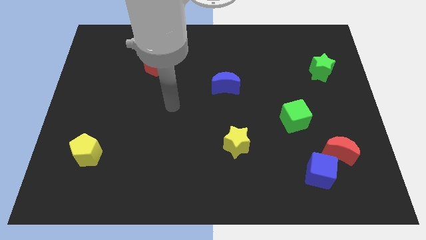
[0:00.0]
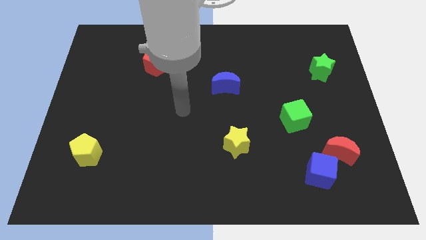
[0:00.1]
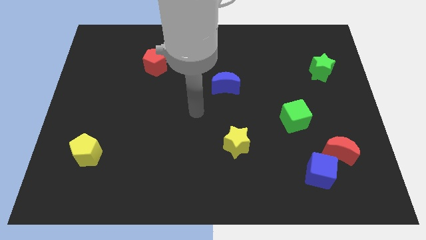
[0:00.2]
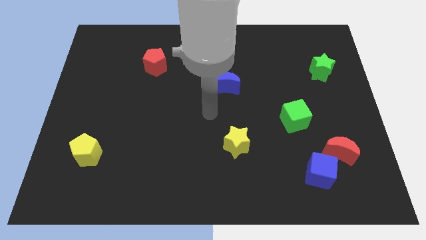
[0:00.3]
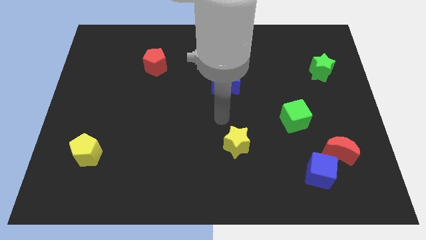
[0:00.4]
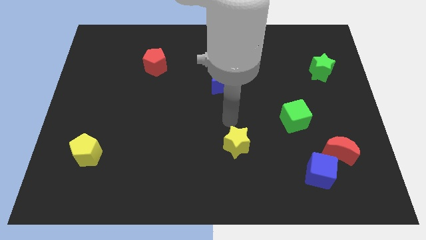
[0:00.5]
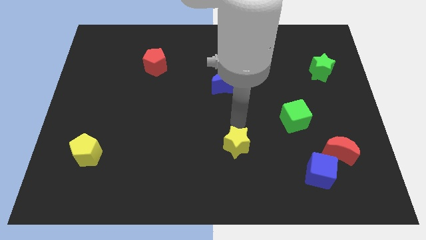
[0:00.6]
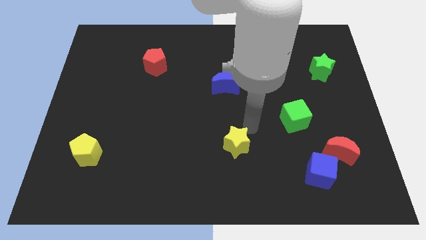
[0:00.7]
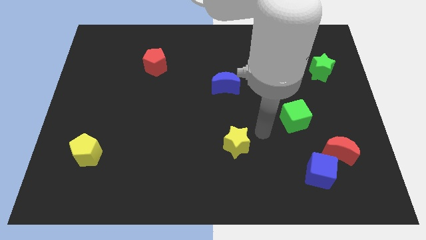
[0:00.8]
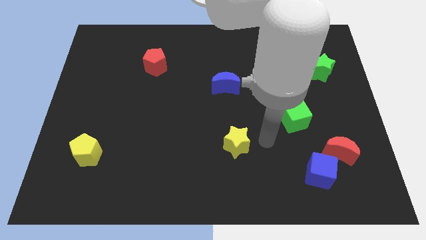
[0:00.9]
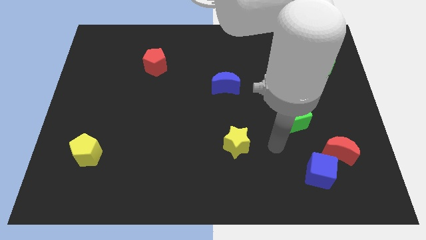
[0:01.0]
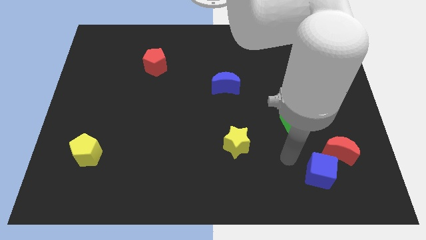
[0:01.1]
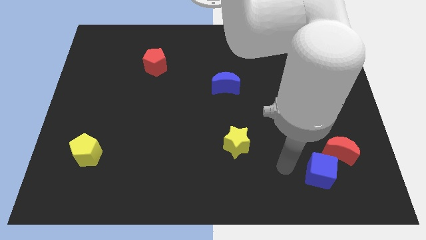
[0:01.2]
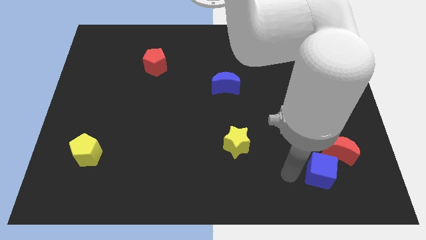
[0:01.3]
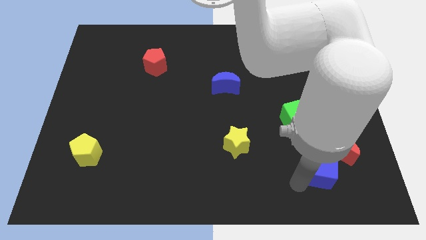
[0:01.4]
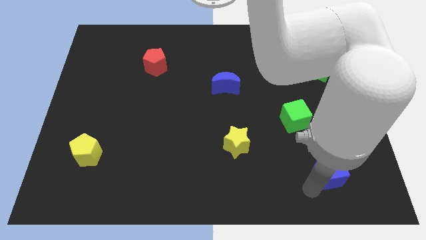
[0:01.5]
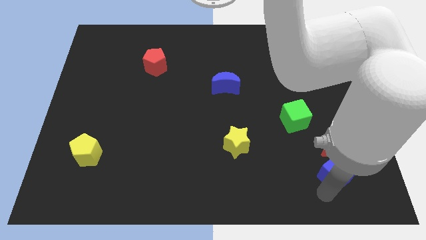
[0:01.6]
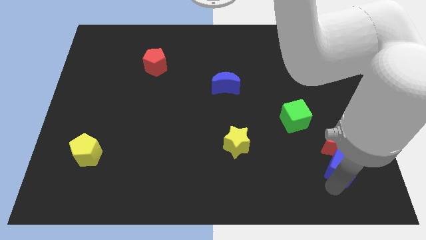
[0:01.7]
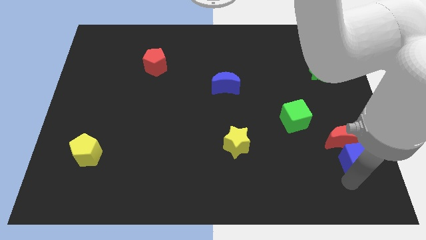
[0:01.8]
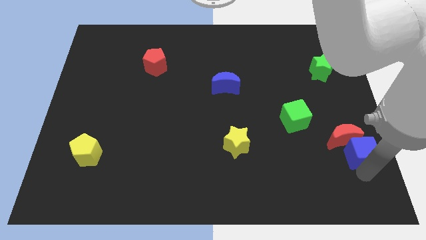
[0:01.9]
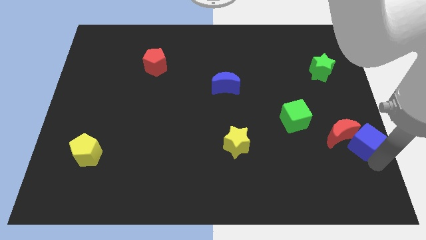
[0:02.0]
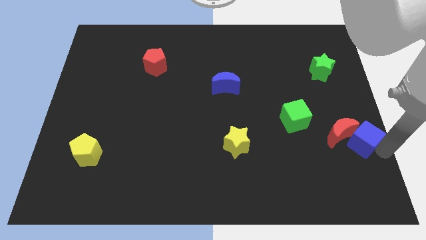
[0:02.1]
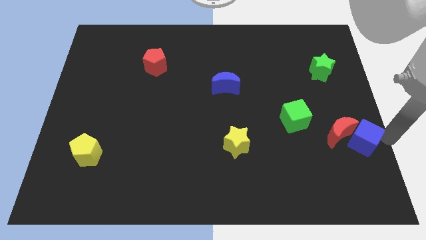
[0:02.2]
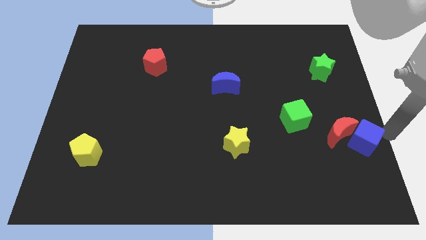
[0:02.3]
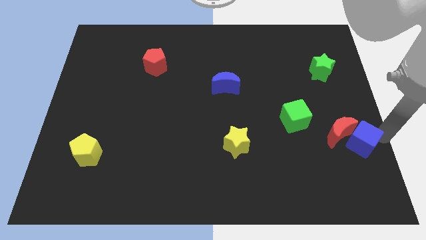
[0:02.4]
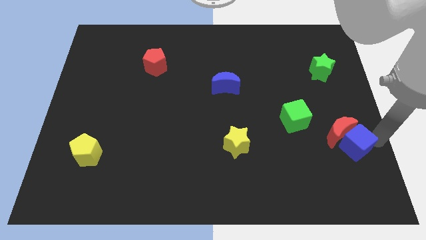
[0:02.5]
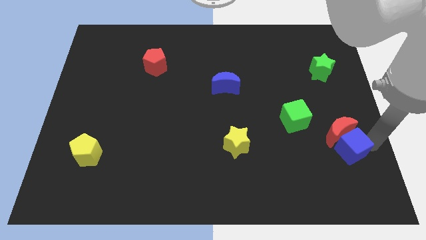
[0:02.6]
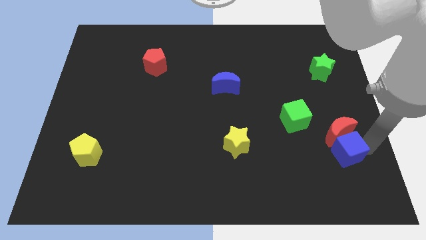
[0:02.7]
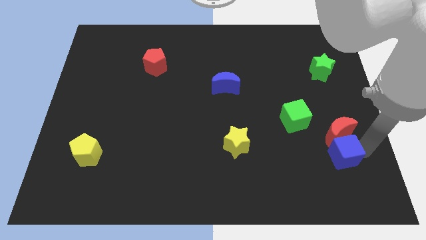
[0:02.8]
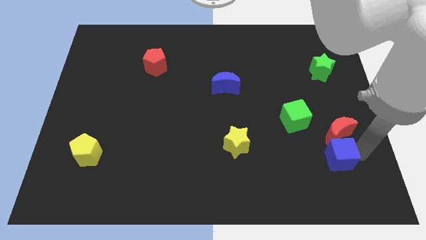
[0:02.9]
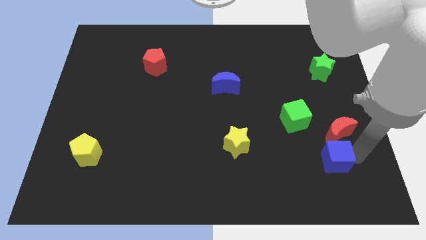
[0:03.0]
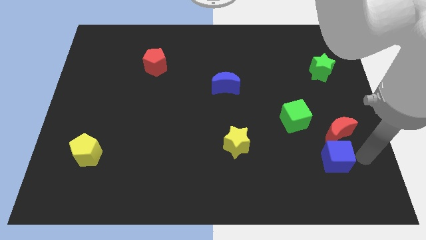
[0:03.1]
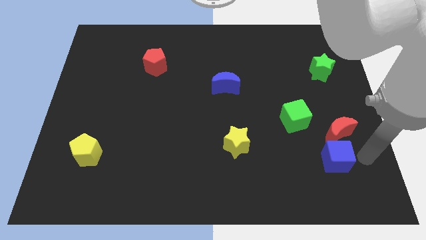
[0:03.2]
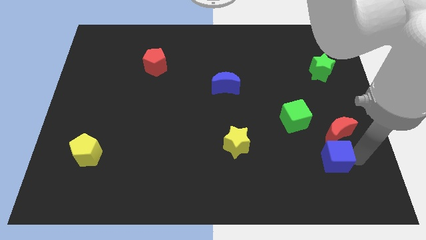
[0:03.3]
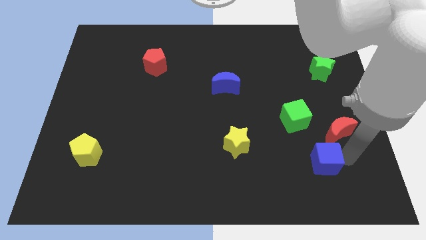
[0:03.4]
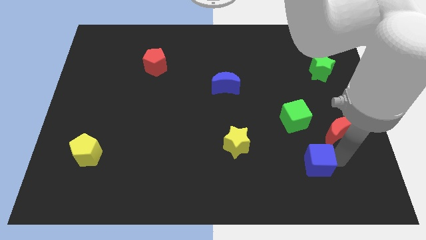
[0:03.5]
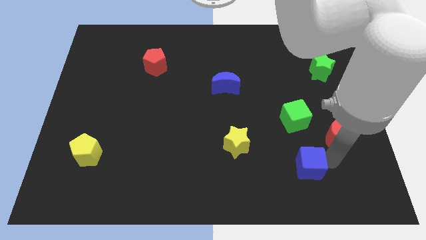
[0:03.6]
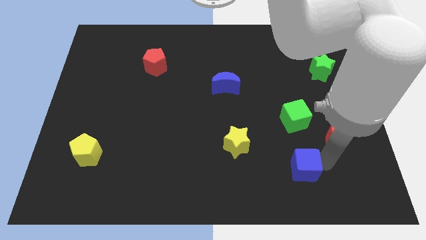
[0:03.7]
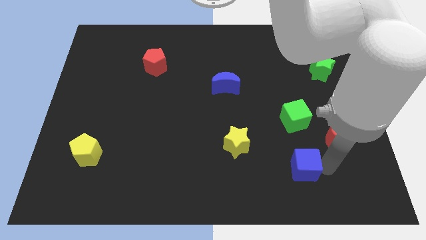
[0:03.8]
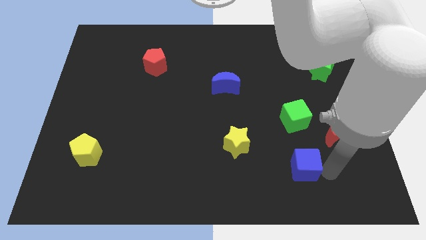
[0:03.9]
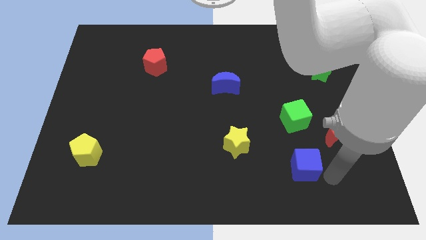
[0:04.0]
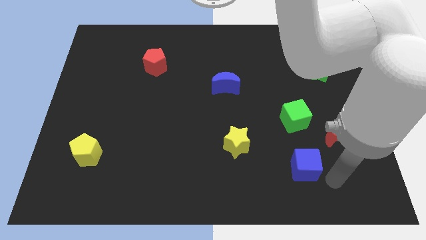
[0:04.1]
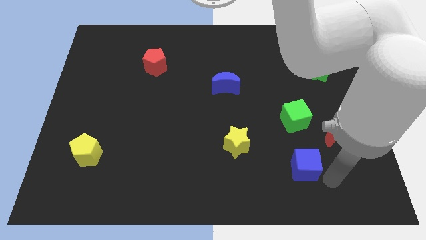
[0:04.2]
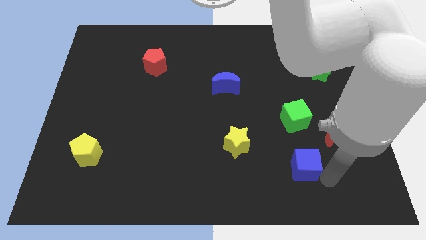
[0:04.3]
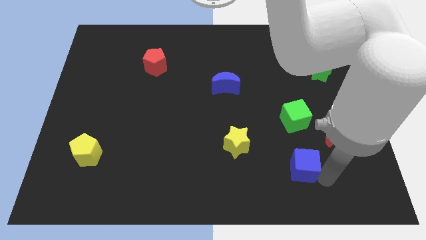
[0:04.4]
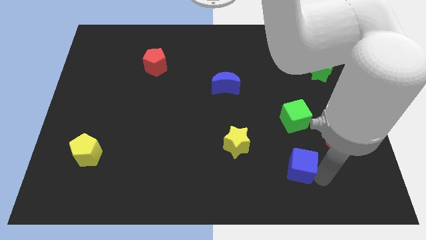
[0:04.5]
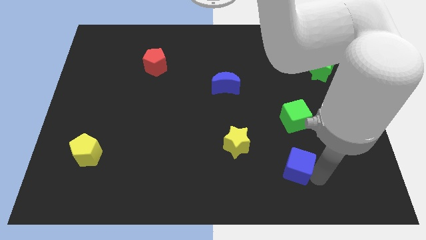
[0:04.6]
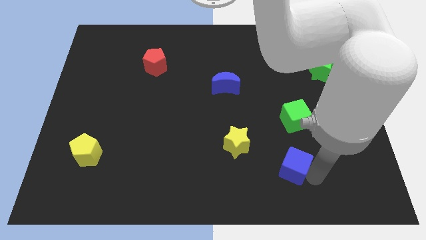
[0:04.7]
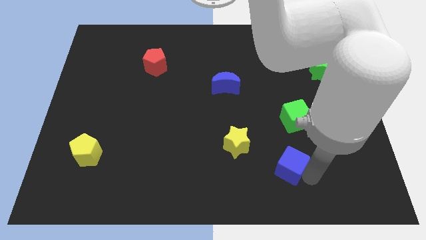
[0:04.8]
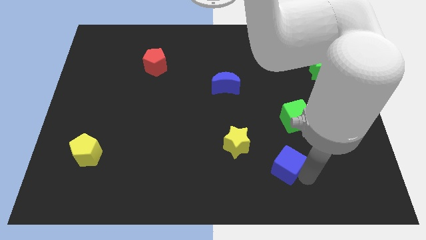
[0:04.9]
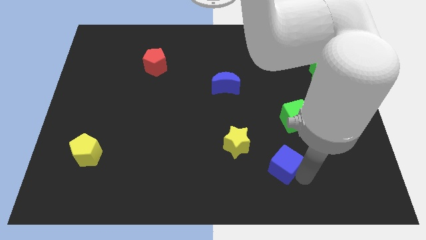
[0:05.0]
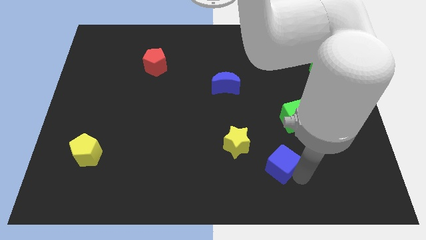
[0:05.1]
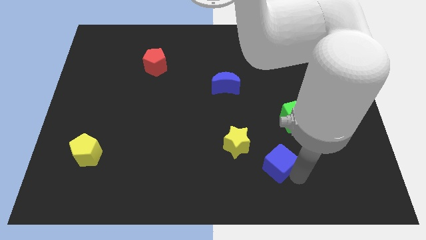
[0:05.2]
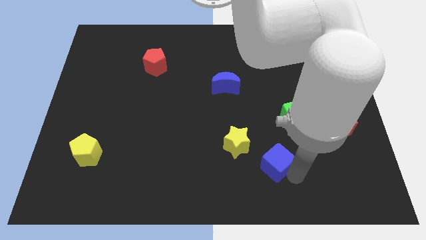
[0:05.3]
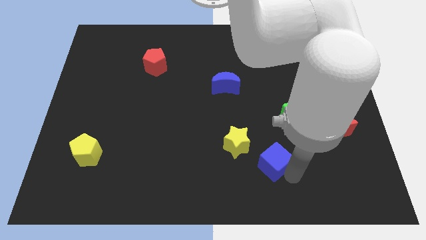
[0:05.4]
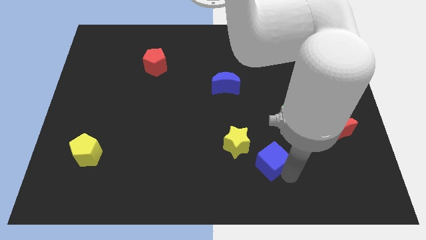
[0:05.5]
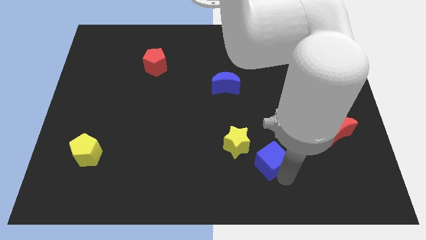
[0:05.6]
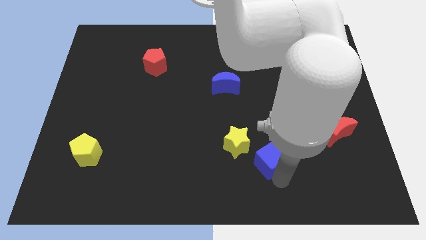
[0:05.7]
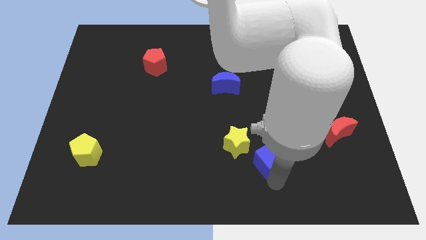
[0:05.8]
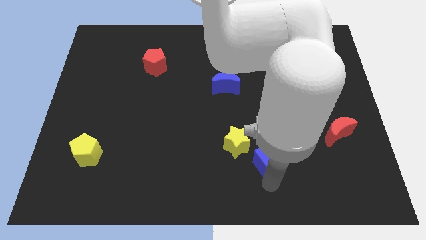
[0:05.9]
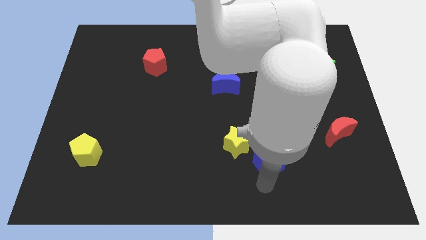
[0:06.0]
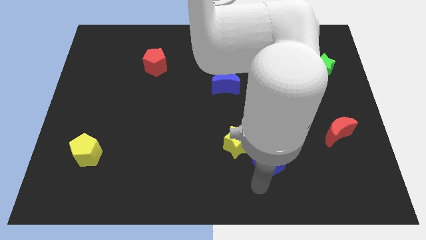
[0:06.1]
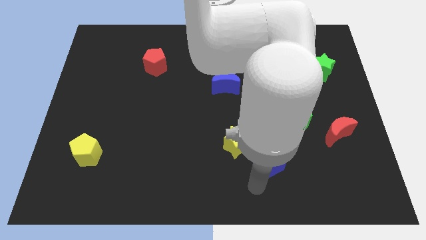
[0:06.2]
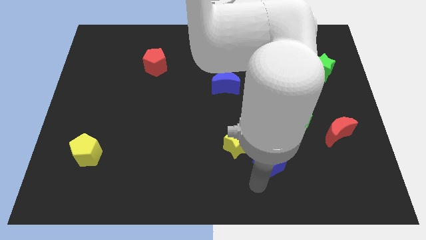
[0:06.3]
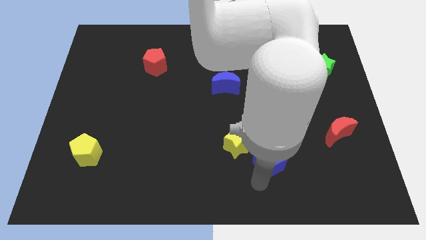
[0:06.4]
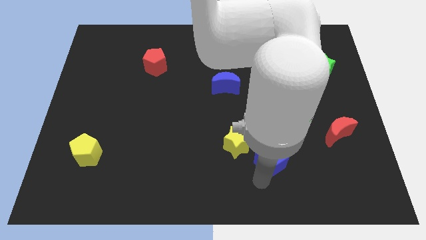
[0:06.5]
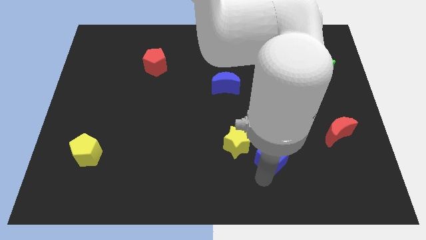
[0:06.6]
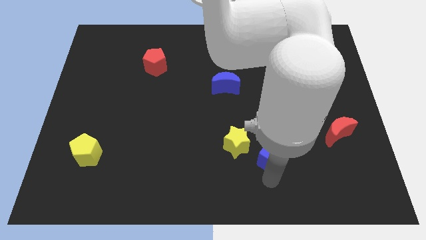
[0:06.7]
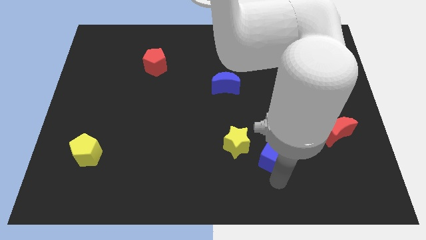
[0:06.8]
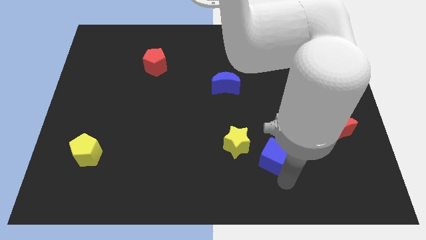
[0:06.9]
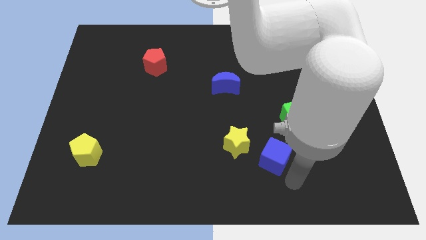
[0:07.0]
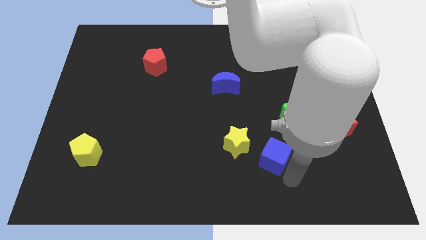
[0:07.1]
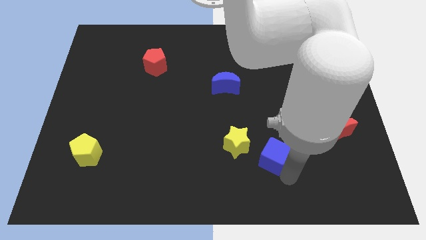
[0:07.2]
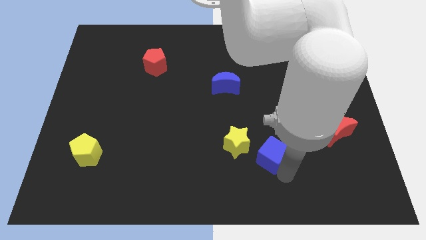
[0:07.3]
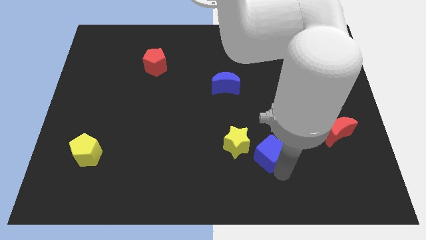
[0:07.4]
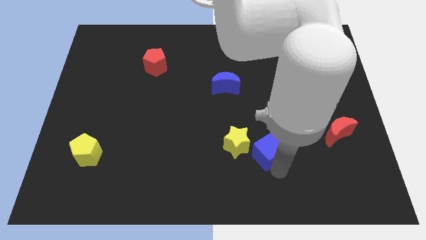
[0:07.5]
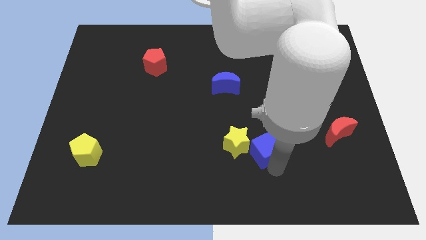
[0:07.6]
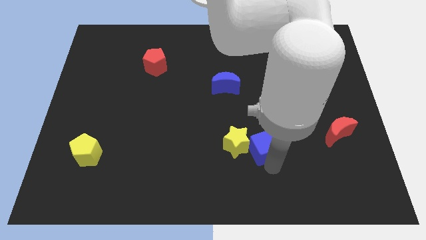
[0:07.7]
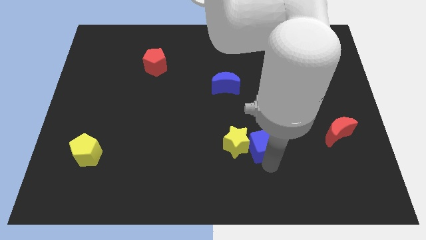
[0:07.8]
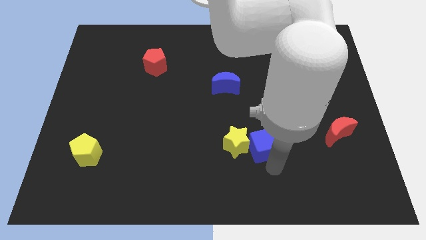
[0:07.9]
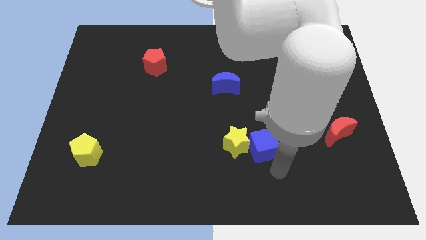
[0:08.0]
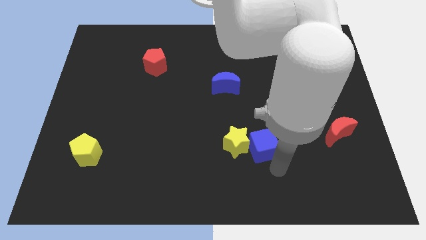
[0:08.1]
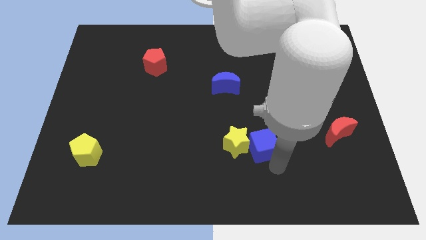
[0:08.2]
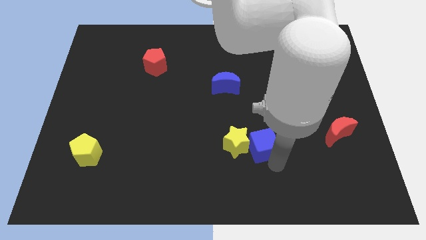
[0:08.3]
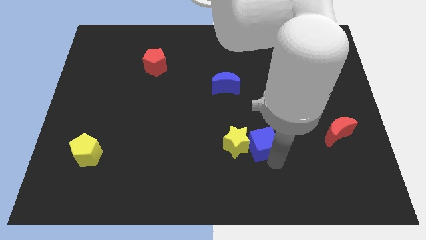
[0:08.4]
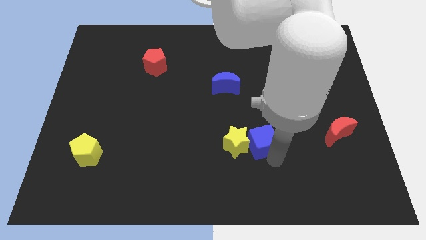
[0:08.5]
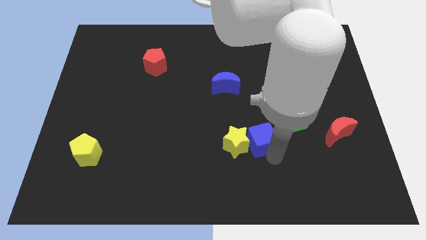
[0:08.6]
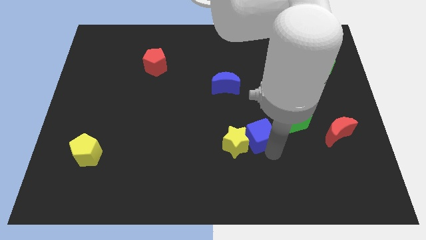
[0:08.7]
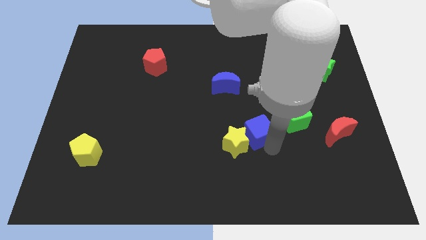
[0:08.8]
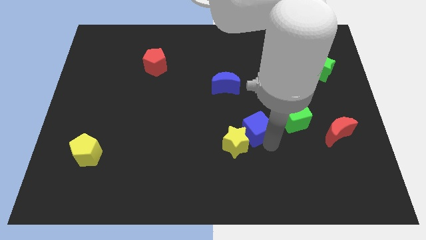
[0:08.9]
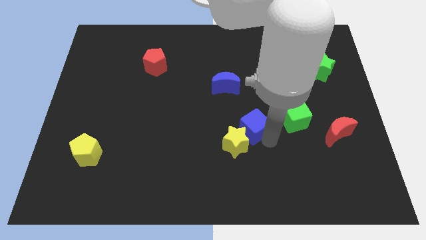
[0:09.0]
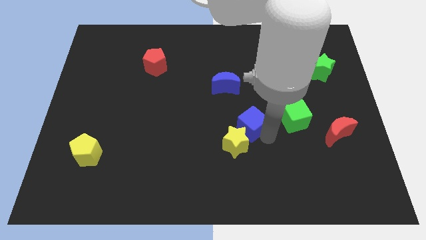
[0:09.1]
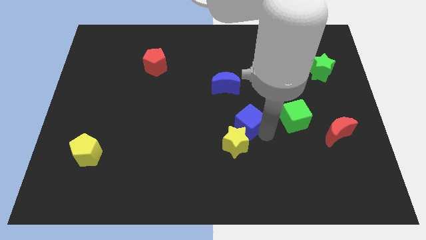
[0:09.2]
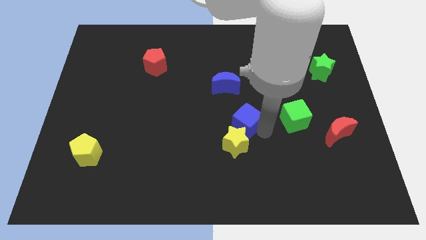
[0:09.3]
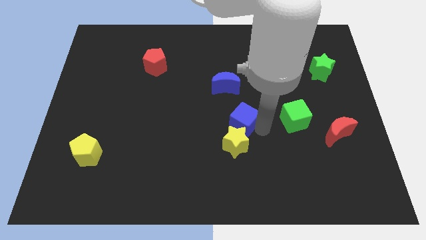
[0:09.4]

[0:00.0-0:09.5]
move the blue cube up and left
